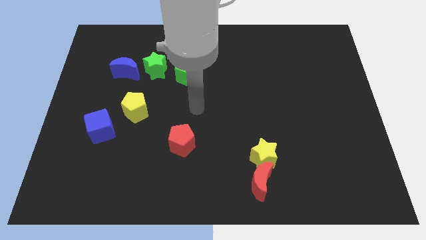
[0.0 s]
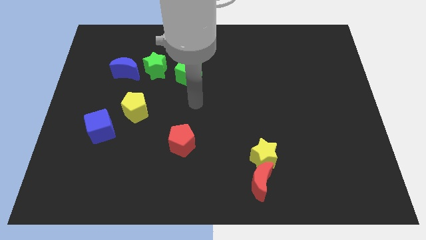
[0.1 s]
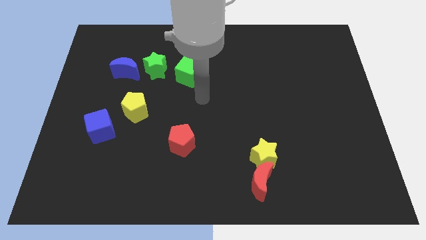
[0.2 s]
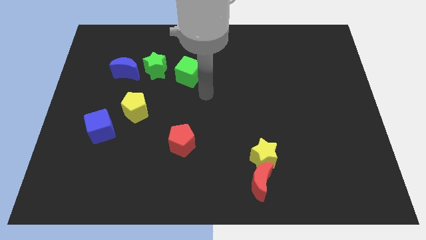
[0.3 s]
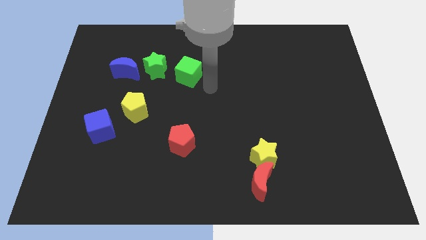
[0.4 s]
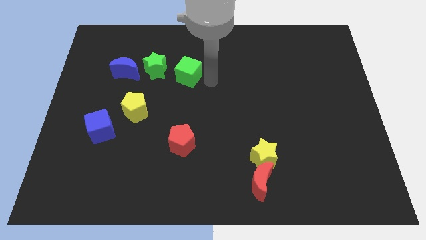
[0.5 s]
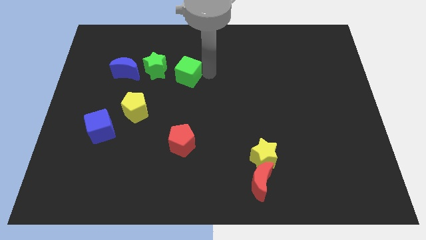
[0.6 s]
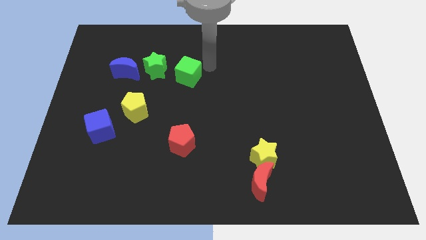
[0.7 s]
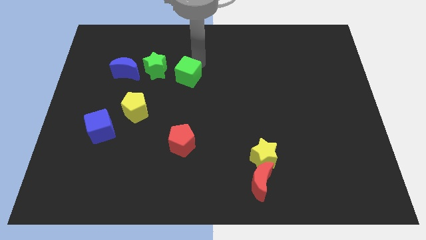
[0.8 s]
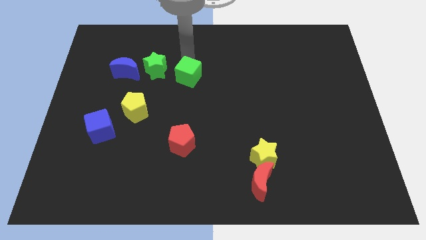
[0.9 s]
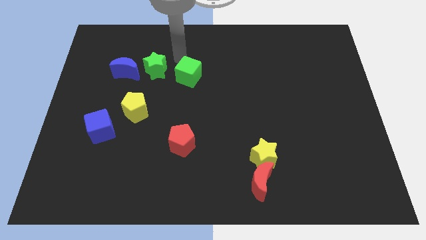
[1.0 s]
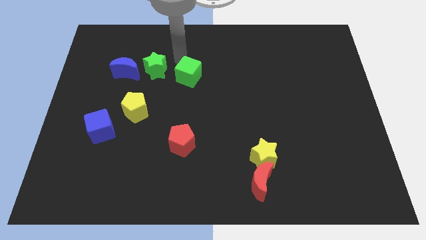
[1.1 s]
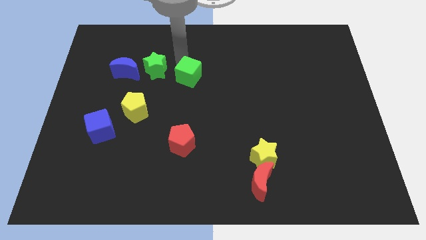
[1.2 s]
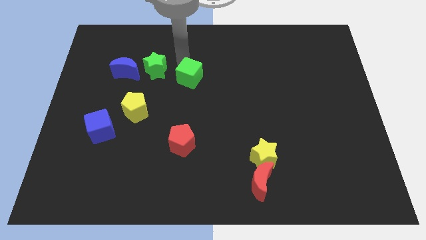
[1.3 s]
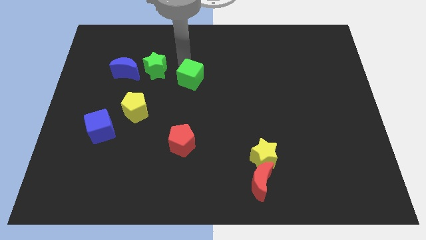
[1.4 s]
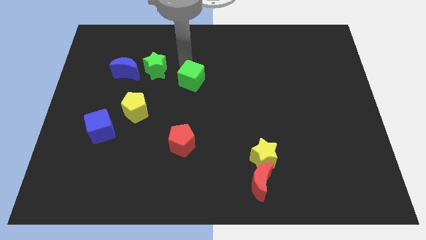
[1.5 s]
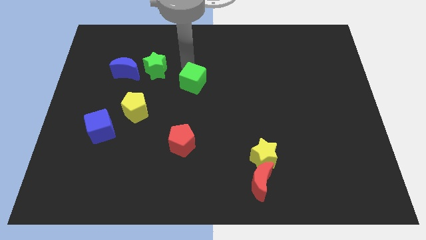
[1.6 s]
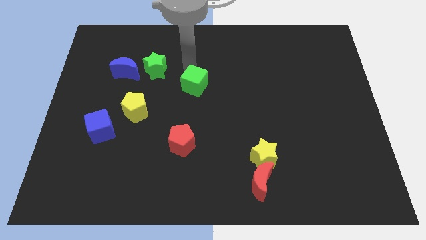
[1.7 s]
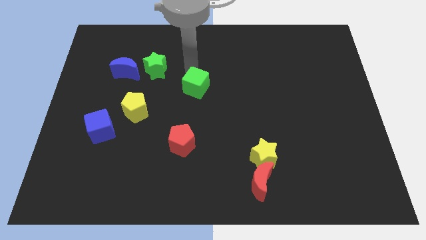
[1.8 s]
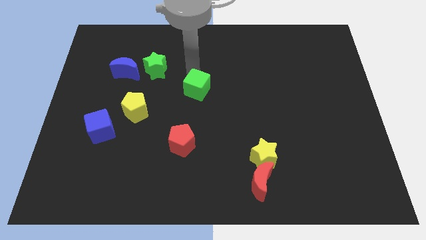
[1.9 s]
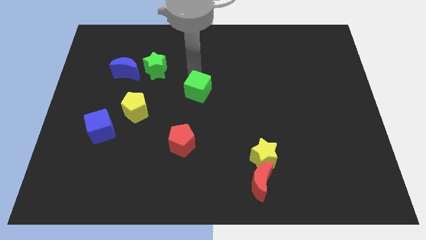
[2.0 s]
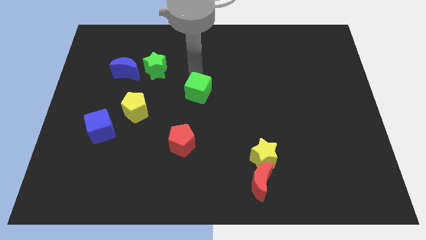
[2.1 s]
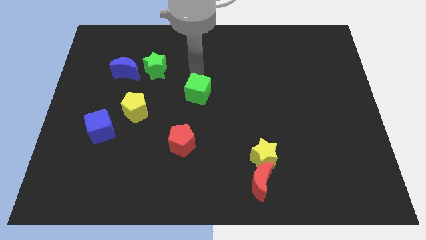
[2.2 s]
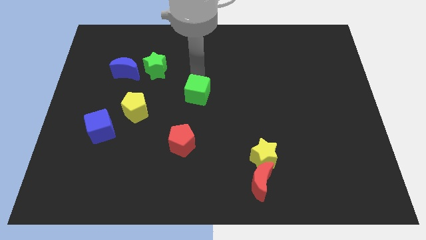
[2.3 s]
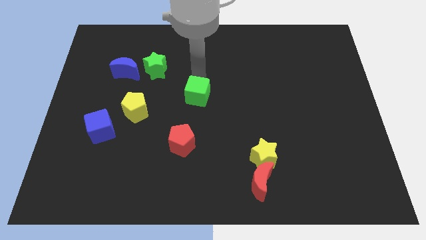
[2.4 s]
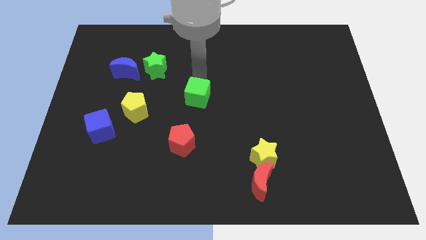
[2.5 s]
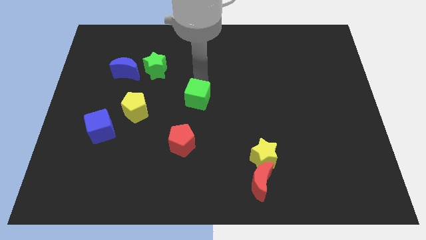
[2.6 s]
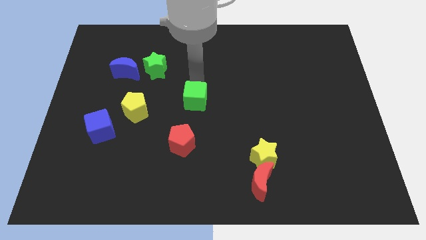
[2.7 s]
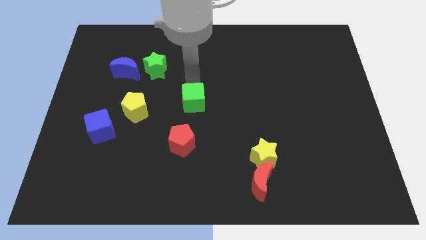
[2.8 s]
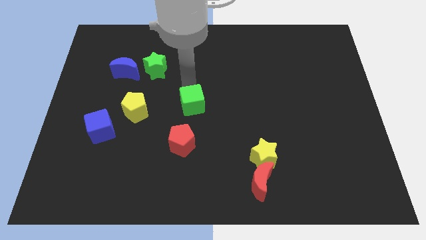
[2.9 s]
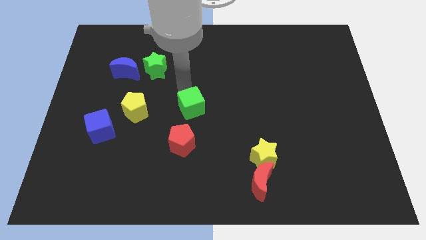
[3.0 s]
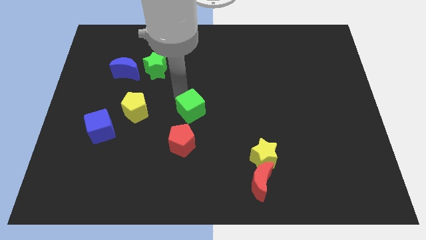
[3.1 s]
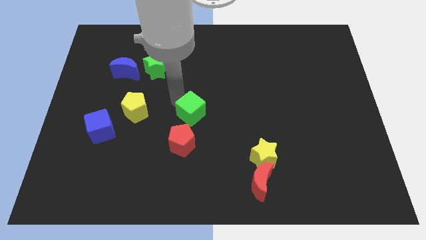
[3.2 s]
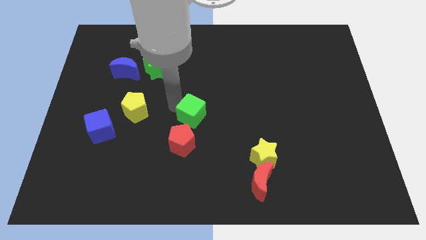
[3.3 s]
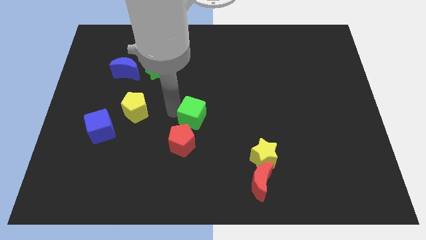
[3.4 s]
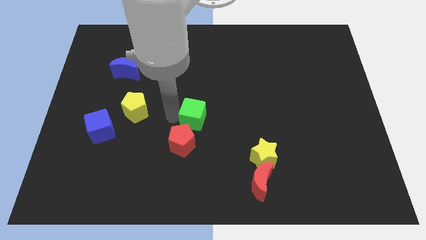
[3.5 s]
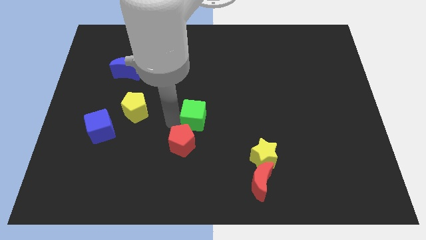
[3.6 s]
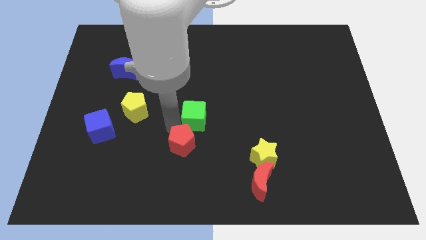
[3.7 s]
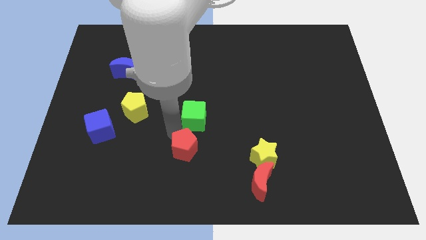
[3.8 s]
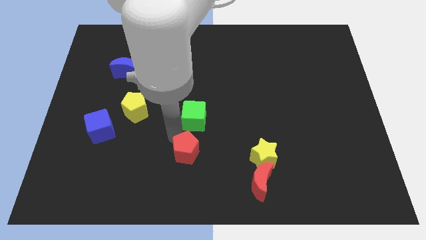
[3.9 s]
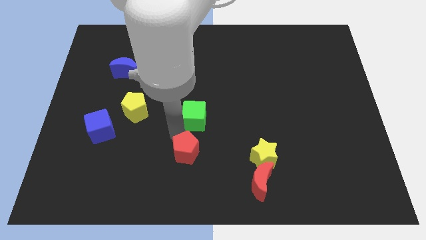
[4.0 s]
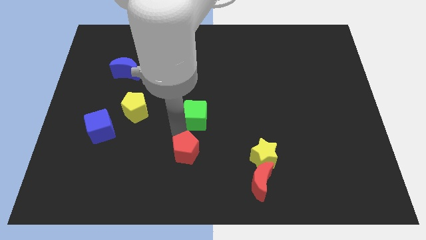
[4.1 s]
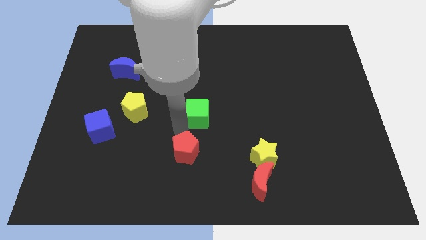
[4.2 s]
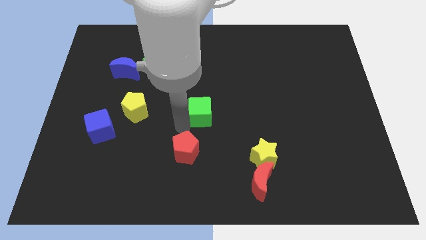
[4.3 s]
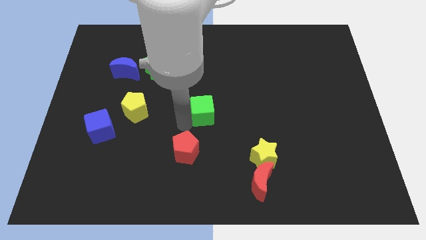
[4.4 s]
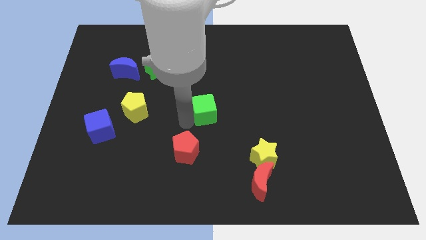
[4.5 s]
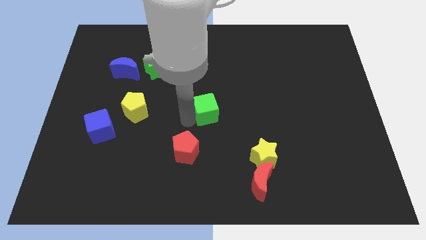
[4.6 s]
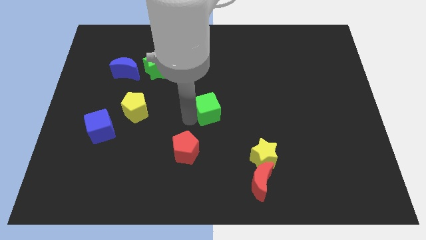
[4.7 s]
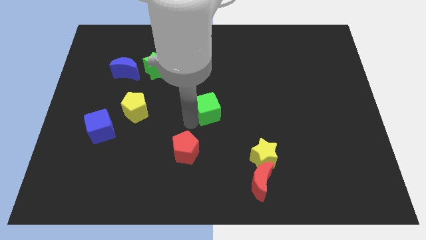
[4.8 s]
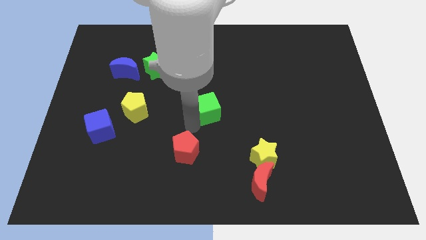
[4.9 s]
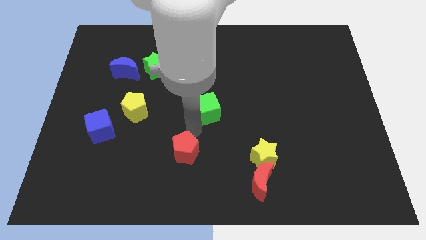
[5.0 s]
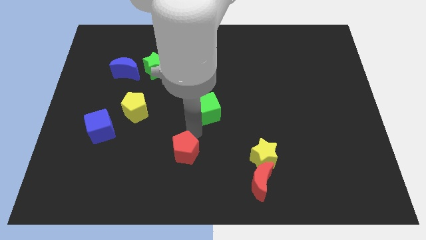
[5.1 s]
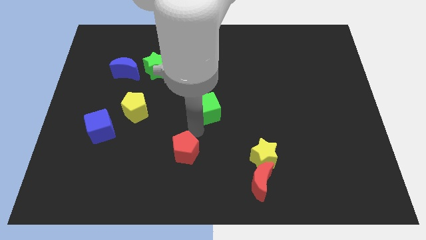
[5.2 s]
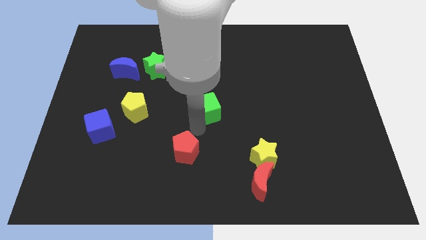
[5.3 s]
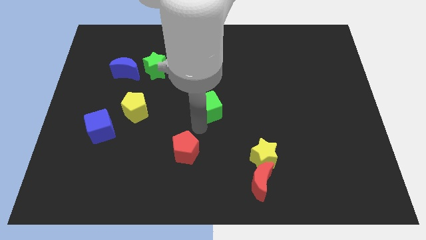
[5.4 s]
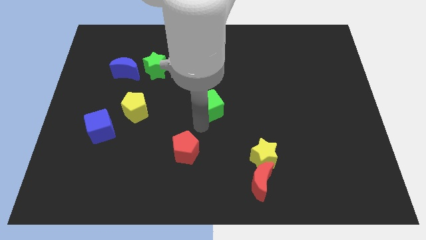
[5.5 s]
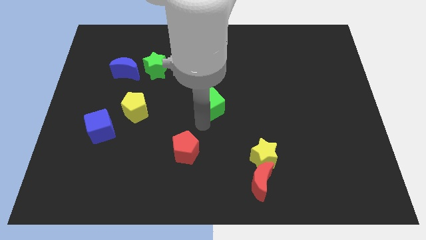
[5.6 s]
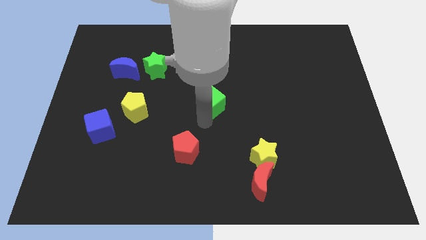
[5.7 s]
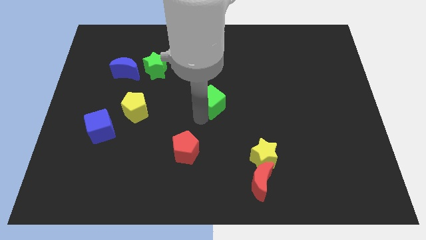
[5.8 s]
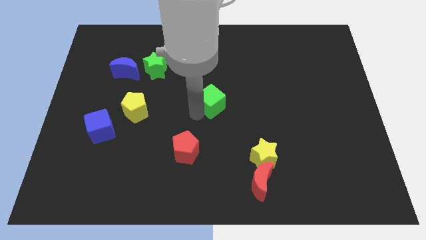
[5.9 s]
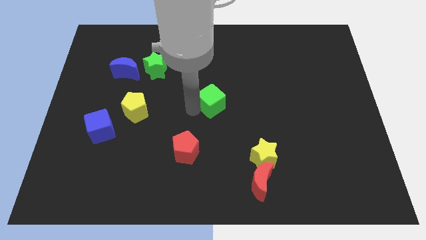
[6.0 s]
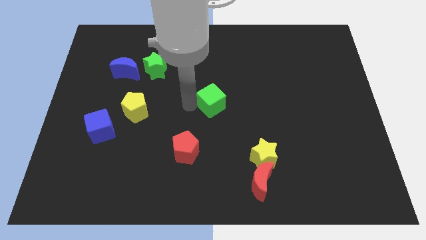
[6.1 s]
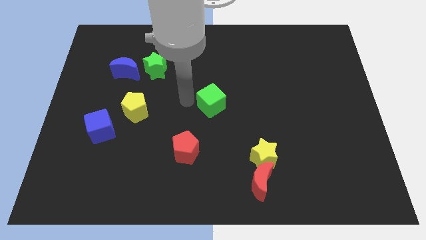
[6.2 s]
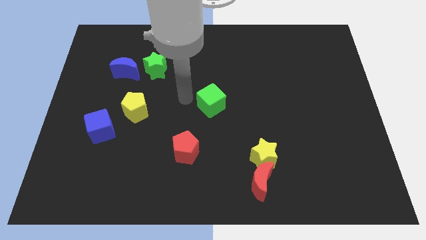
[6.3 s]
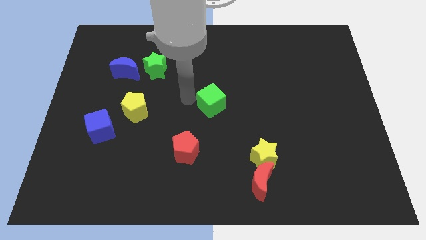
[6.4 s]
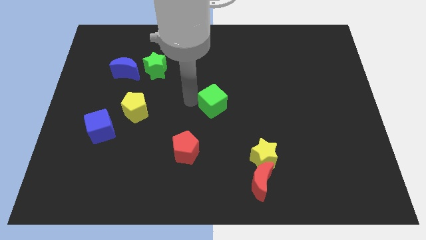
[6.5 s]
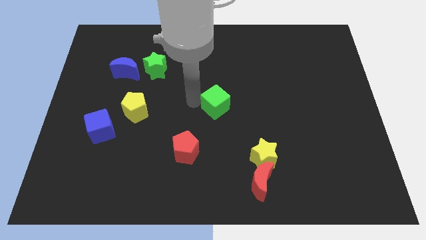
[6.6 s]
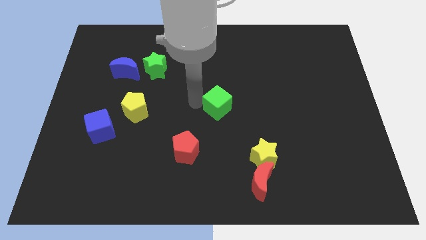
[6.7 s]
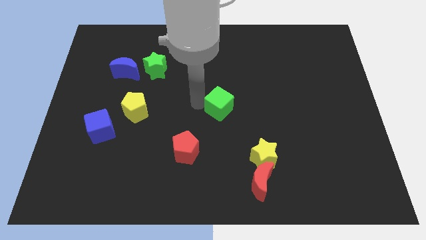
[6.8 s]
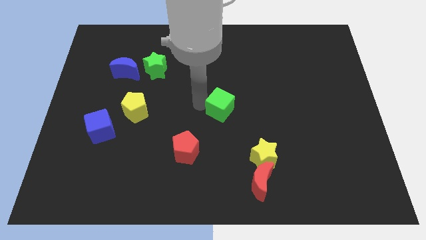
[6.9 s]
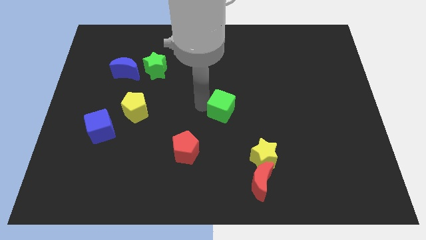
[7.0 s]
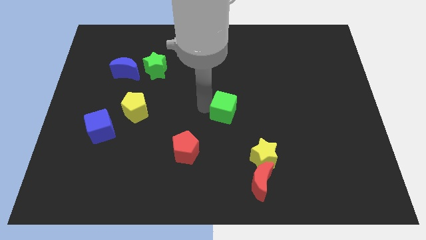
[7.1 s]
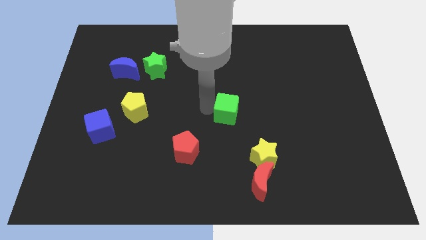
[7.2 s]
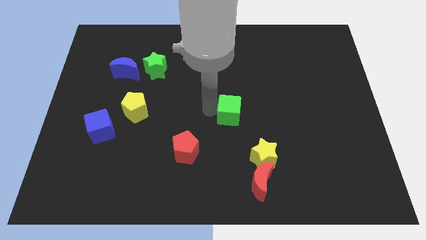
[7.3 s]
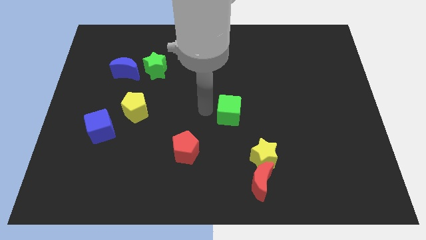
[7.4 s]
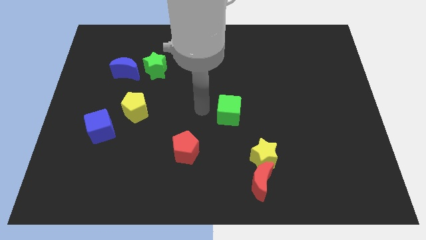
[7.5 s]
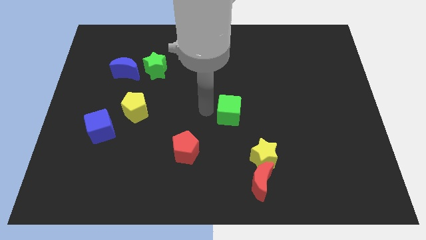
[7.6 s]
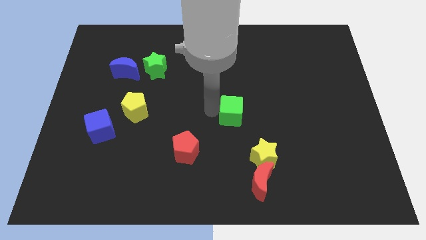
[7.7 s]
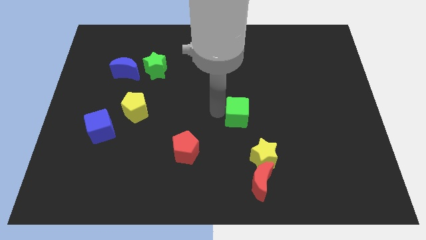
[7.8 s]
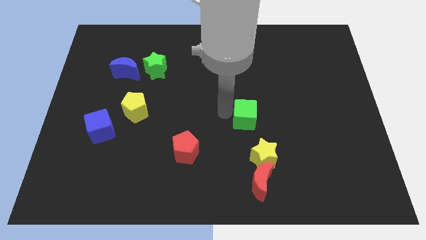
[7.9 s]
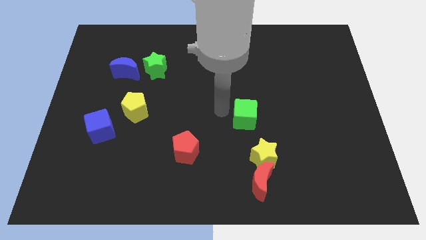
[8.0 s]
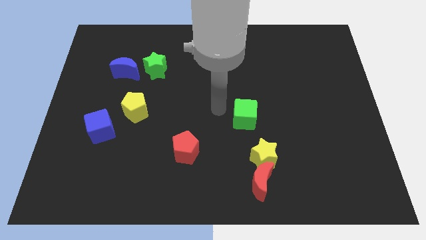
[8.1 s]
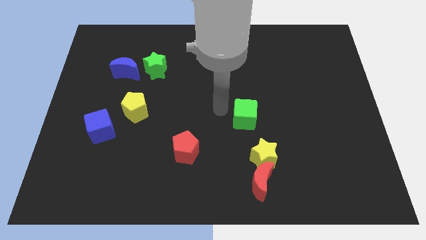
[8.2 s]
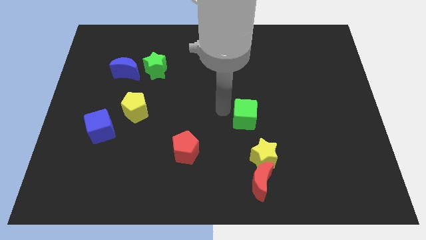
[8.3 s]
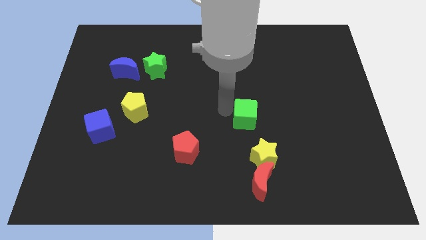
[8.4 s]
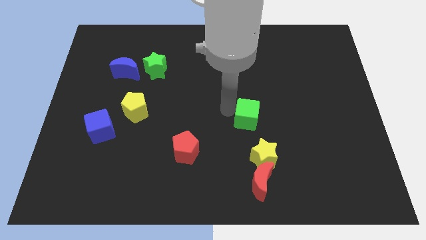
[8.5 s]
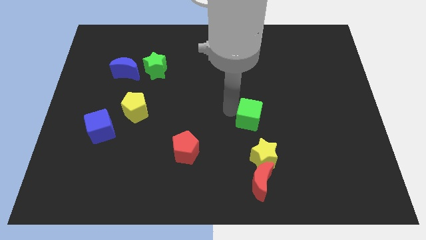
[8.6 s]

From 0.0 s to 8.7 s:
push the green cube downwards and then to the right
